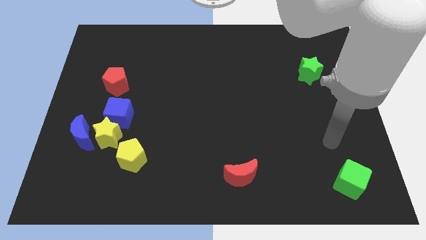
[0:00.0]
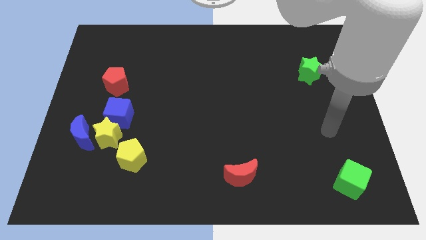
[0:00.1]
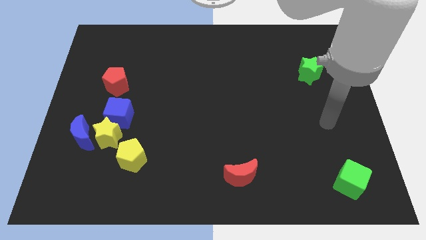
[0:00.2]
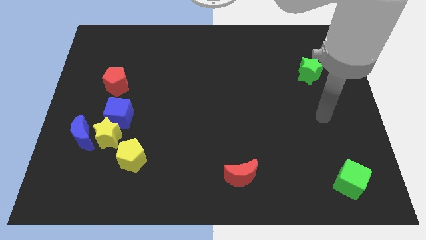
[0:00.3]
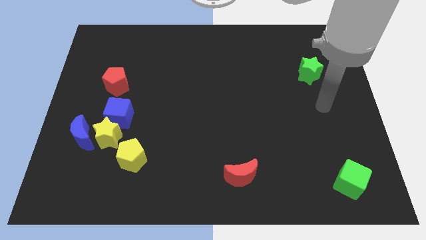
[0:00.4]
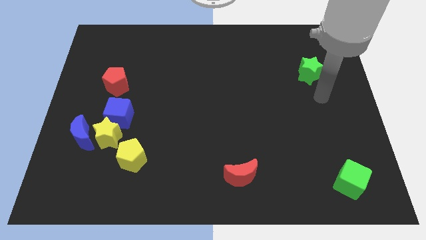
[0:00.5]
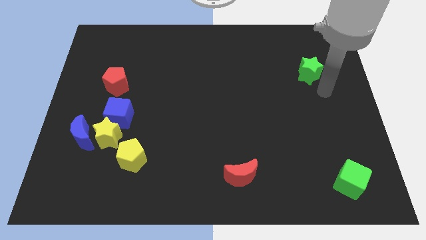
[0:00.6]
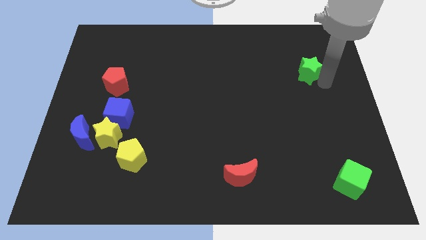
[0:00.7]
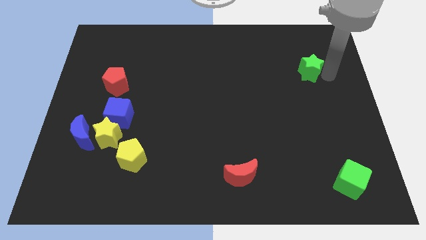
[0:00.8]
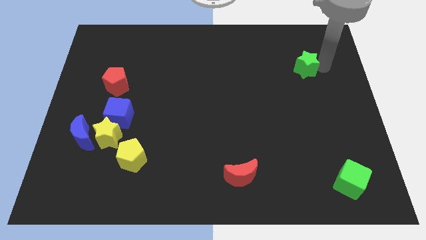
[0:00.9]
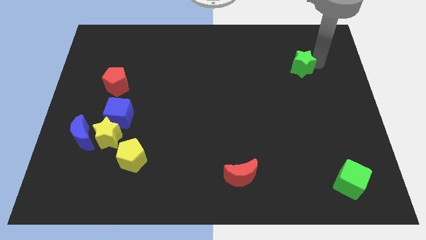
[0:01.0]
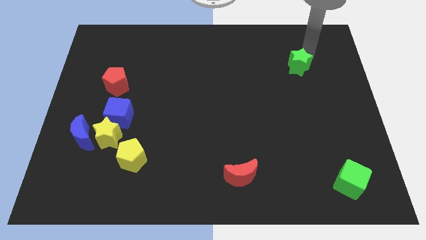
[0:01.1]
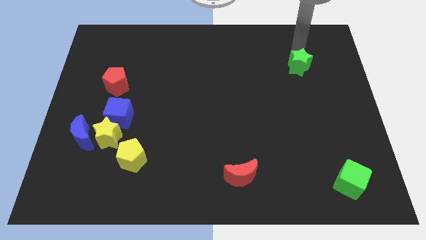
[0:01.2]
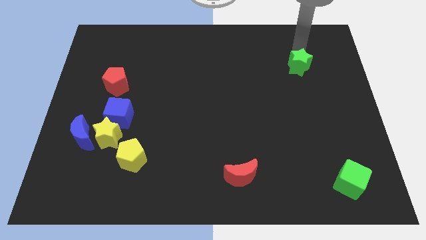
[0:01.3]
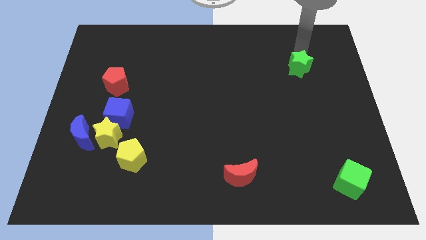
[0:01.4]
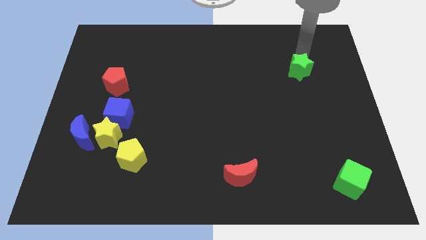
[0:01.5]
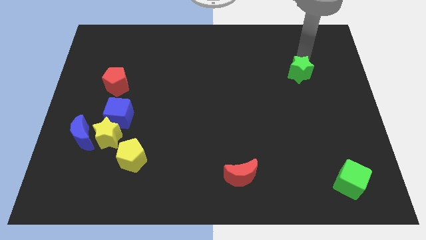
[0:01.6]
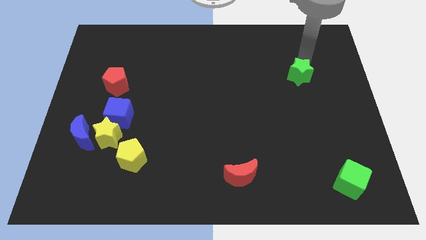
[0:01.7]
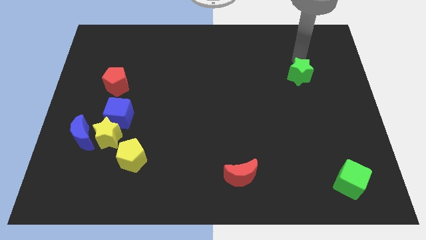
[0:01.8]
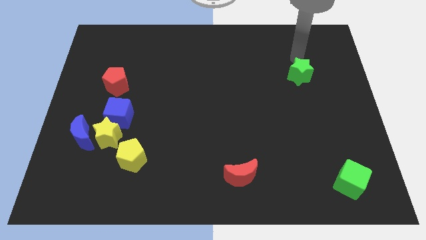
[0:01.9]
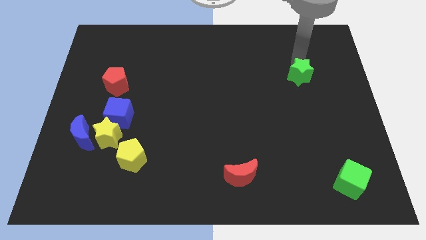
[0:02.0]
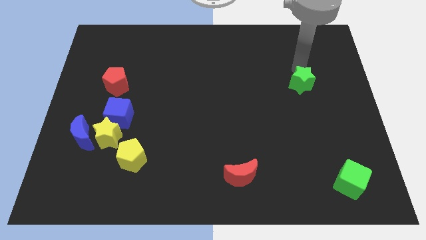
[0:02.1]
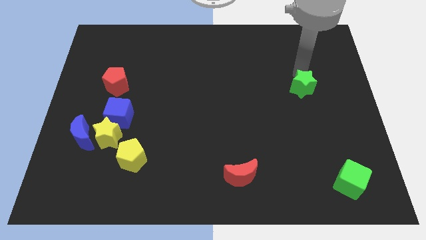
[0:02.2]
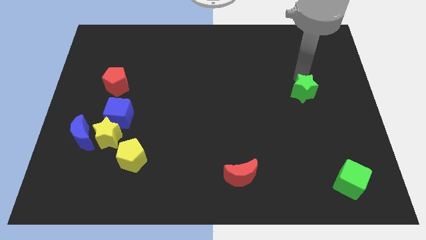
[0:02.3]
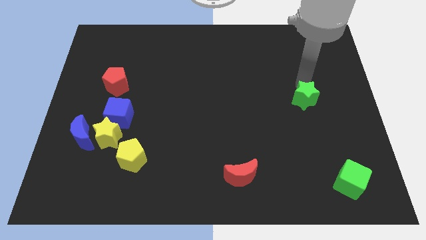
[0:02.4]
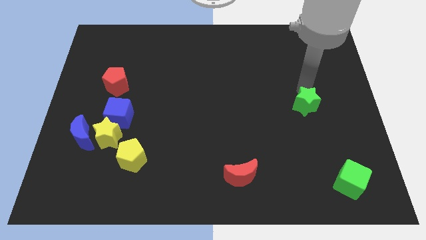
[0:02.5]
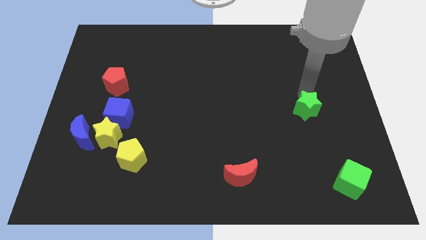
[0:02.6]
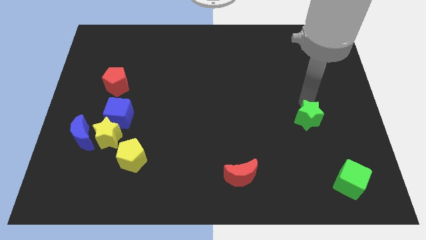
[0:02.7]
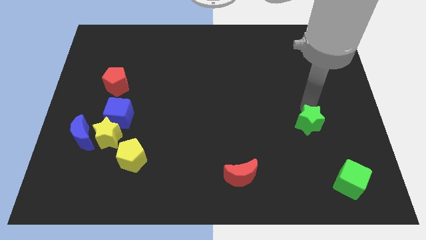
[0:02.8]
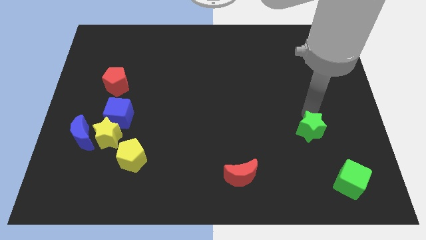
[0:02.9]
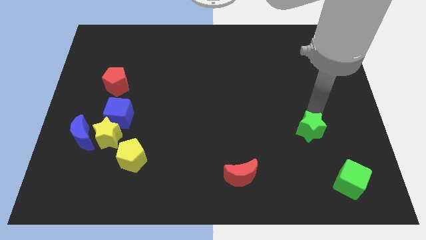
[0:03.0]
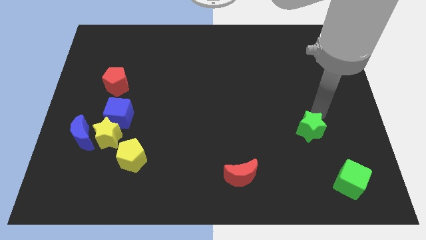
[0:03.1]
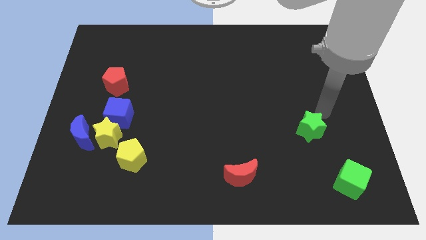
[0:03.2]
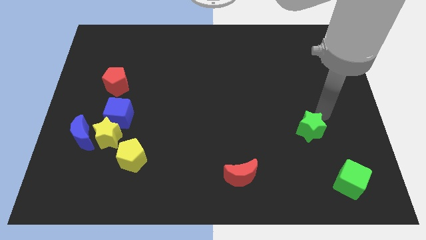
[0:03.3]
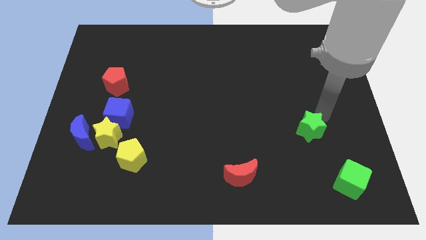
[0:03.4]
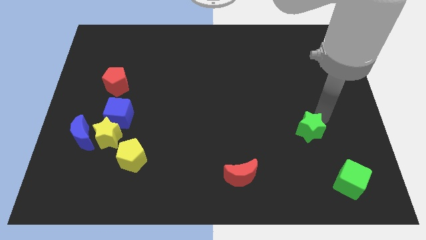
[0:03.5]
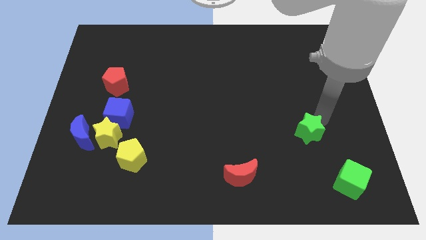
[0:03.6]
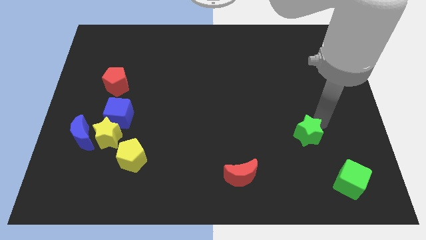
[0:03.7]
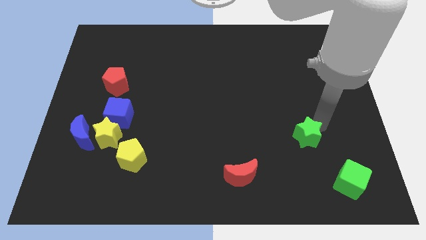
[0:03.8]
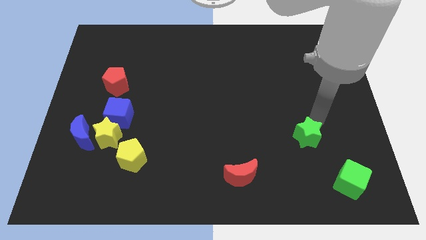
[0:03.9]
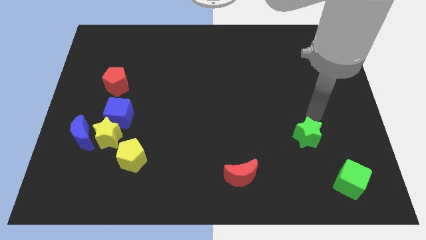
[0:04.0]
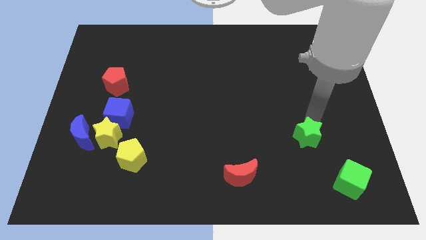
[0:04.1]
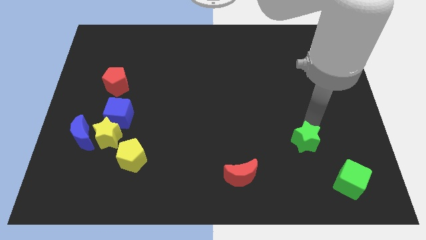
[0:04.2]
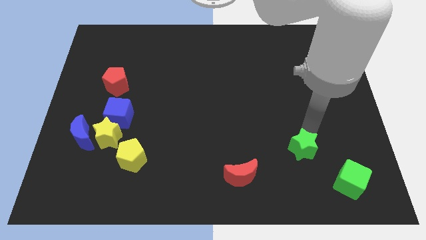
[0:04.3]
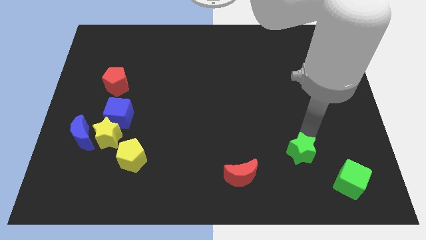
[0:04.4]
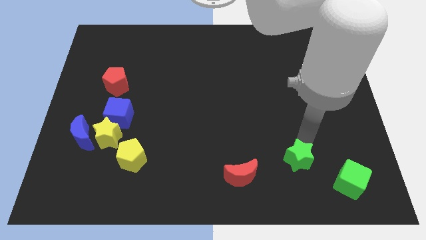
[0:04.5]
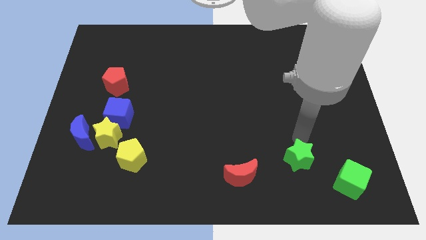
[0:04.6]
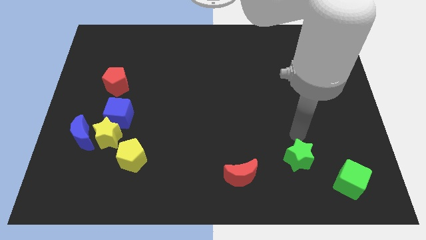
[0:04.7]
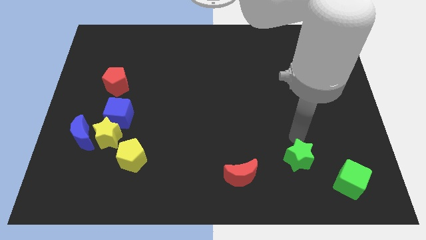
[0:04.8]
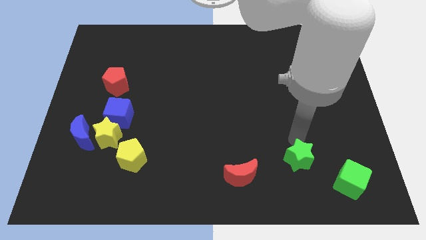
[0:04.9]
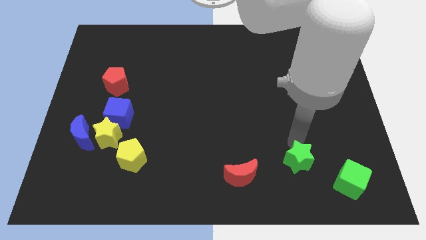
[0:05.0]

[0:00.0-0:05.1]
put the green star to the left side of the green cube

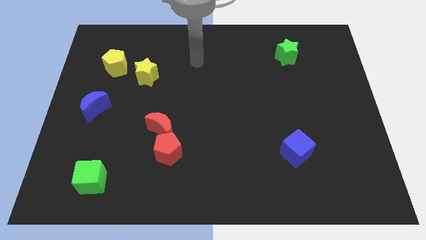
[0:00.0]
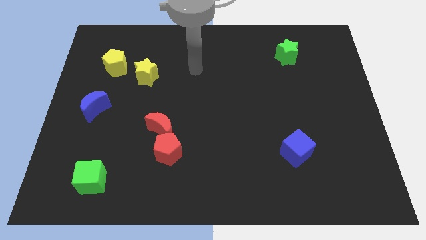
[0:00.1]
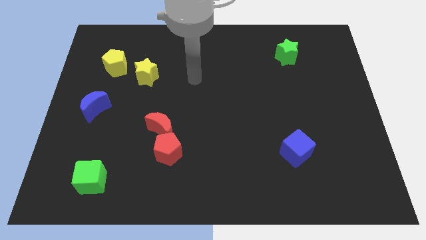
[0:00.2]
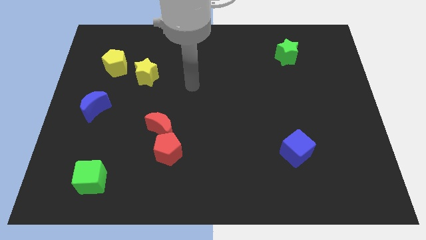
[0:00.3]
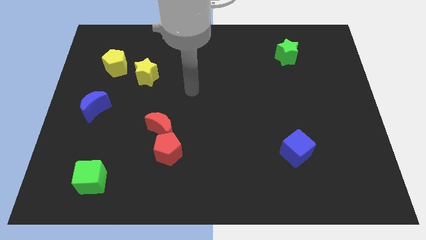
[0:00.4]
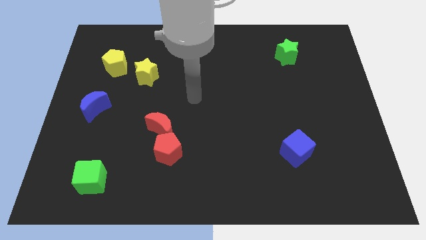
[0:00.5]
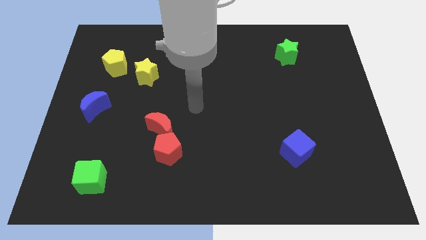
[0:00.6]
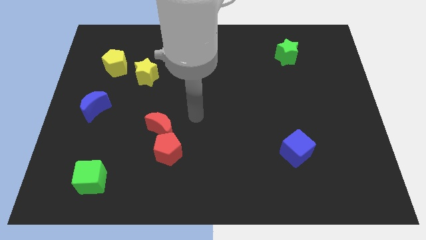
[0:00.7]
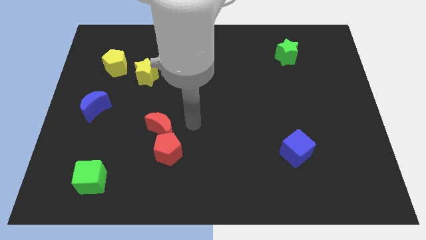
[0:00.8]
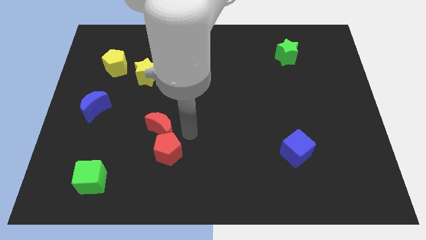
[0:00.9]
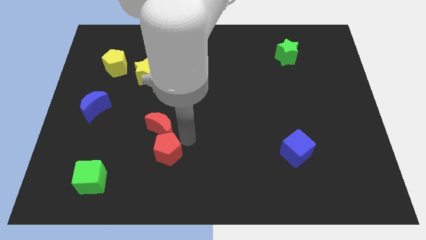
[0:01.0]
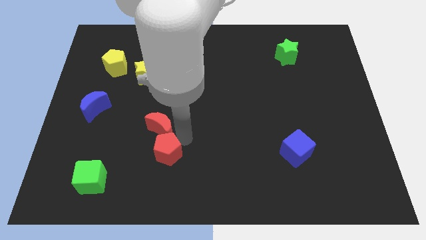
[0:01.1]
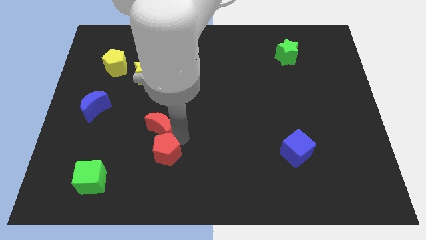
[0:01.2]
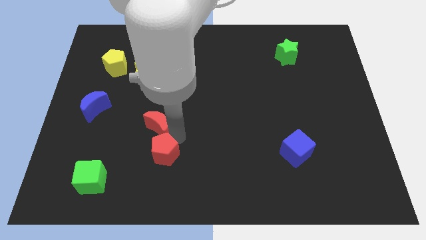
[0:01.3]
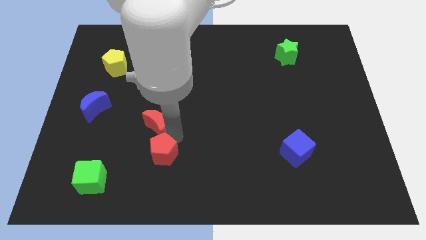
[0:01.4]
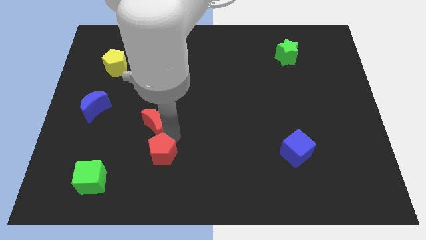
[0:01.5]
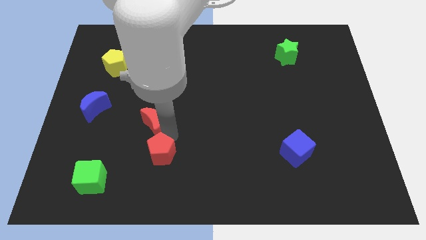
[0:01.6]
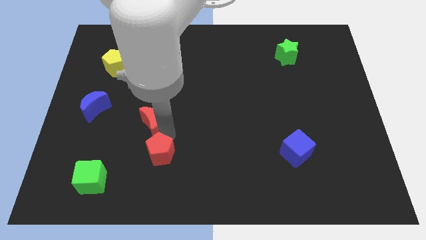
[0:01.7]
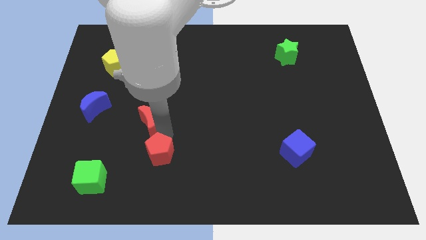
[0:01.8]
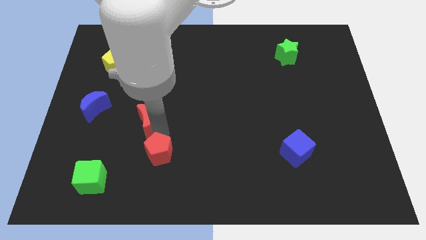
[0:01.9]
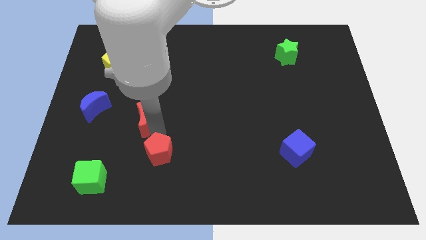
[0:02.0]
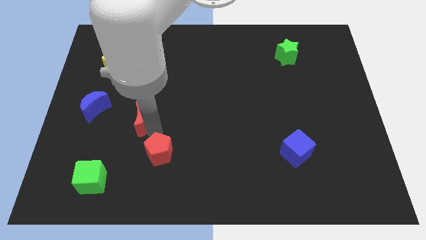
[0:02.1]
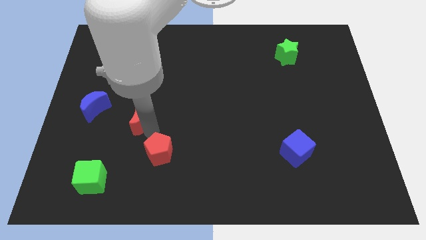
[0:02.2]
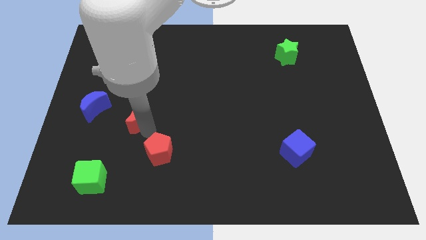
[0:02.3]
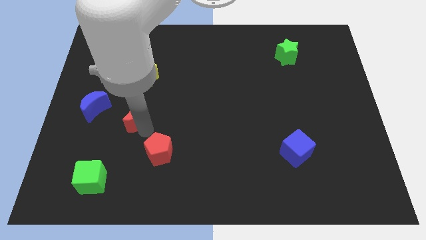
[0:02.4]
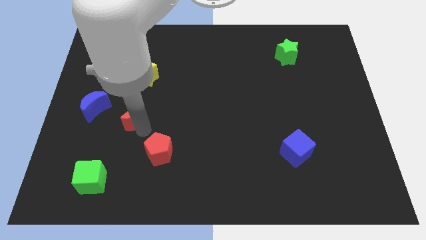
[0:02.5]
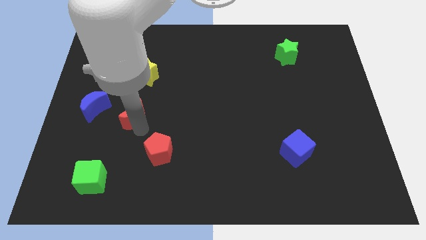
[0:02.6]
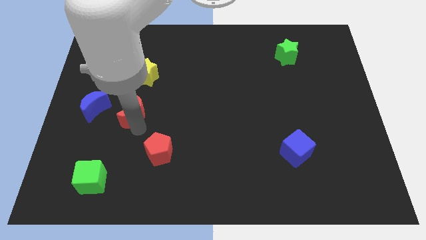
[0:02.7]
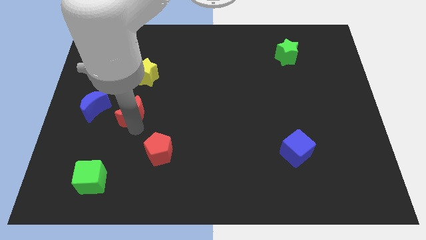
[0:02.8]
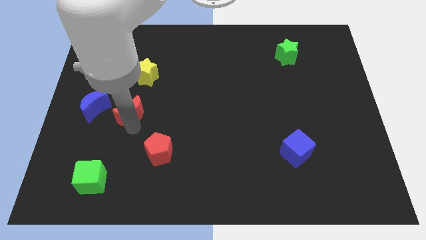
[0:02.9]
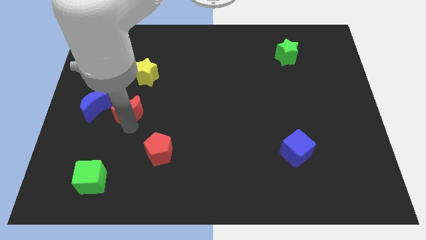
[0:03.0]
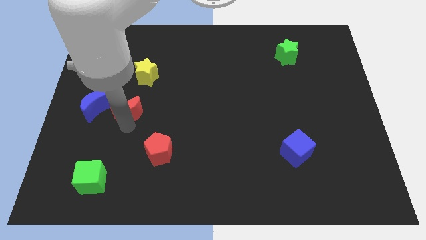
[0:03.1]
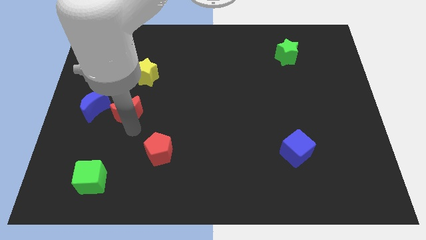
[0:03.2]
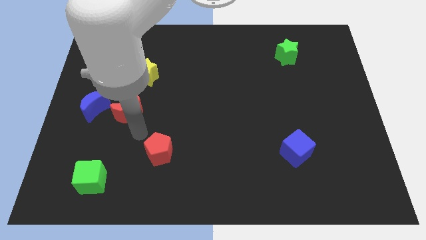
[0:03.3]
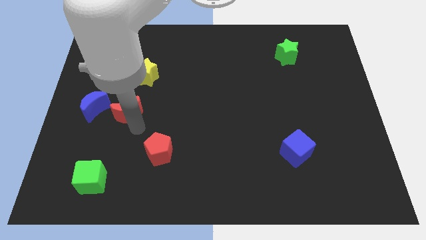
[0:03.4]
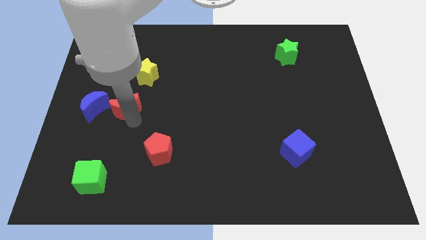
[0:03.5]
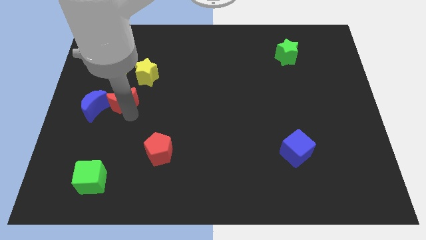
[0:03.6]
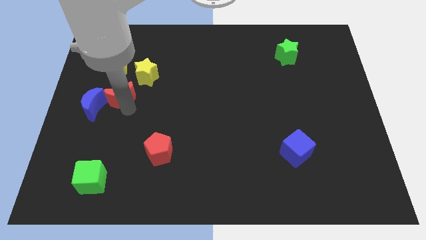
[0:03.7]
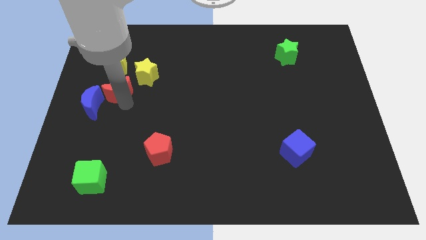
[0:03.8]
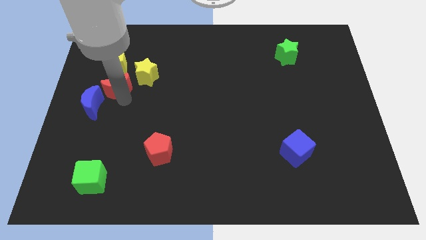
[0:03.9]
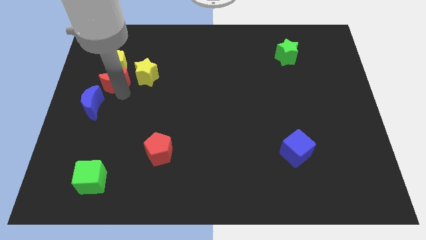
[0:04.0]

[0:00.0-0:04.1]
slide the red moon to the top of the blue moon
